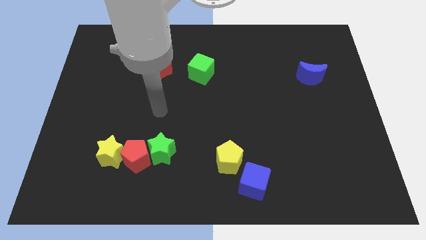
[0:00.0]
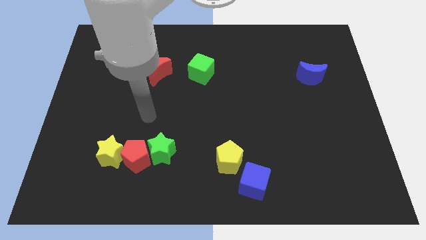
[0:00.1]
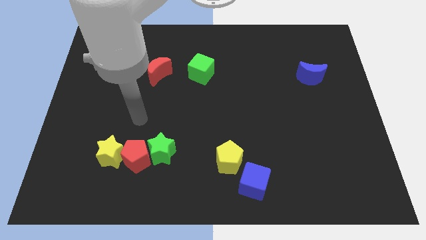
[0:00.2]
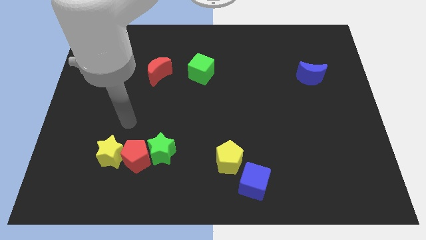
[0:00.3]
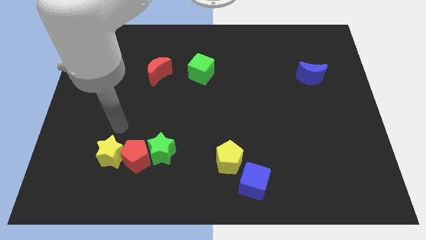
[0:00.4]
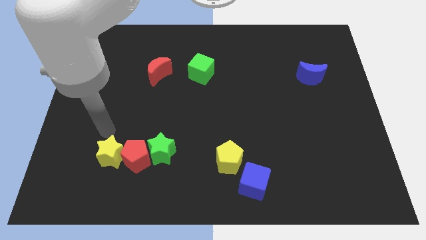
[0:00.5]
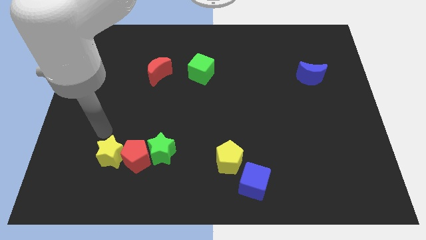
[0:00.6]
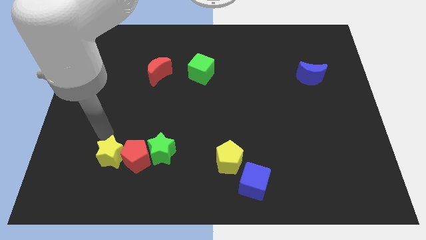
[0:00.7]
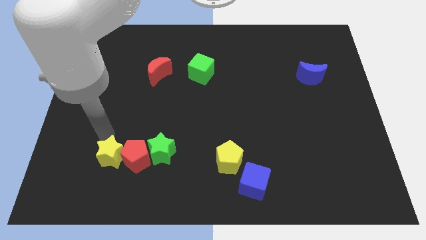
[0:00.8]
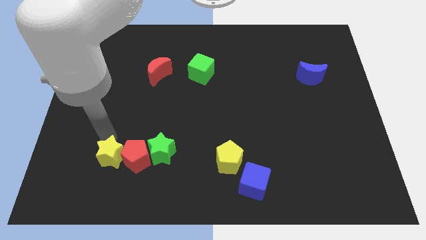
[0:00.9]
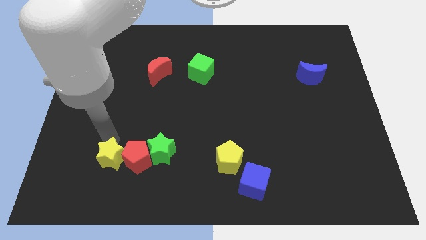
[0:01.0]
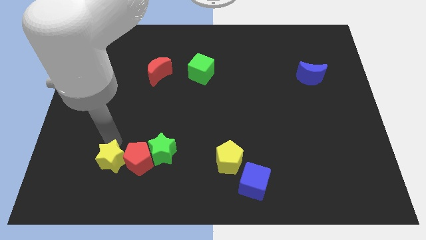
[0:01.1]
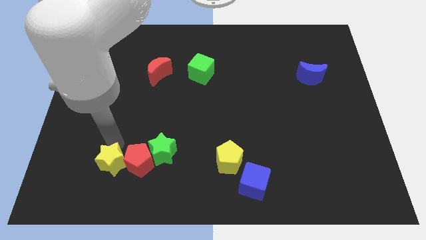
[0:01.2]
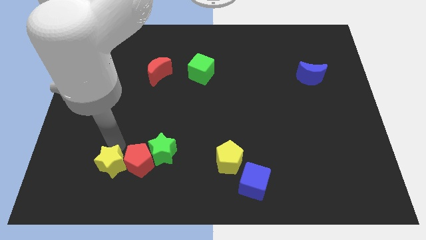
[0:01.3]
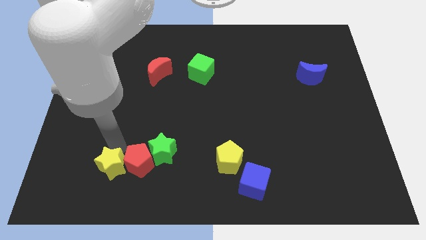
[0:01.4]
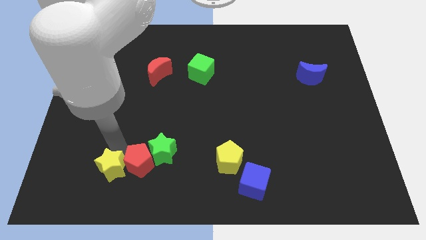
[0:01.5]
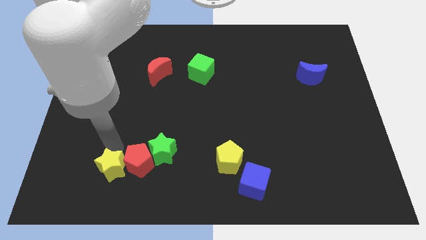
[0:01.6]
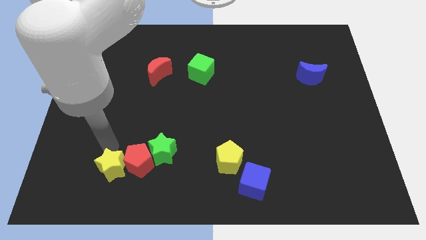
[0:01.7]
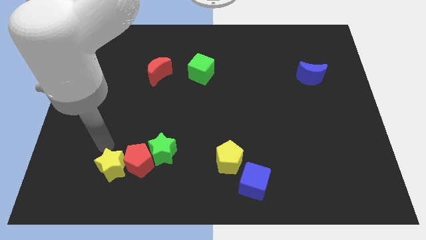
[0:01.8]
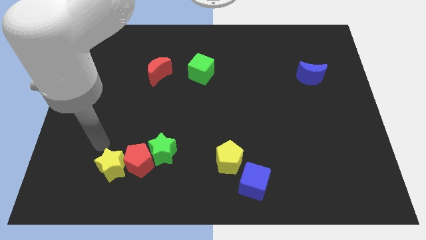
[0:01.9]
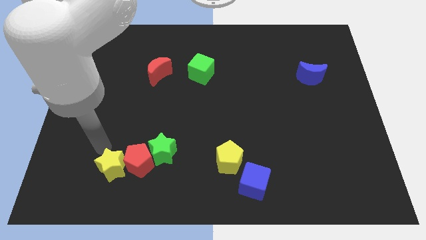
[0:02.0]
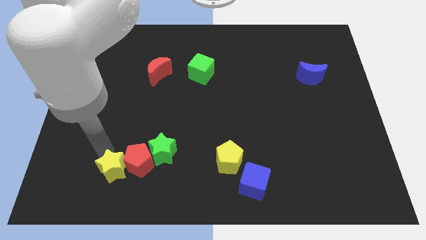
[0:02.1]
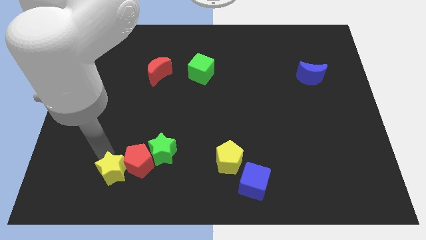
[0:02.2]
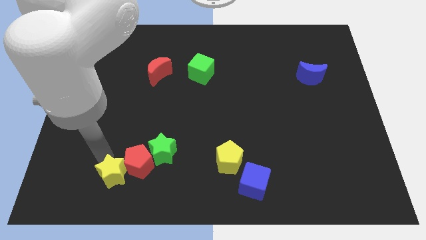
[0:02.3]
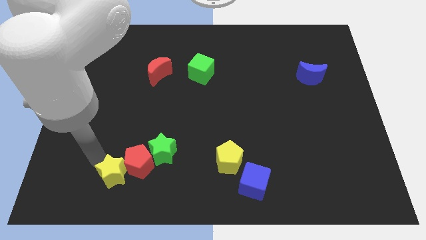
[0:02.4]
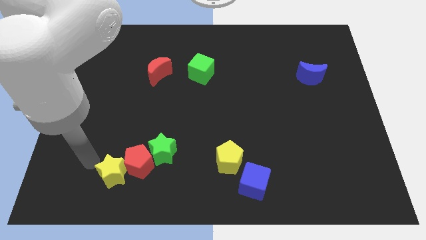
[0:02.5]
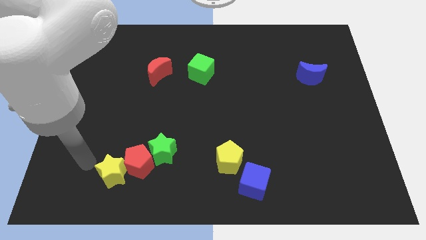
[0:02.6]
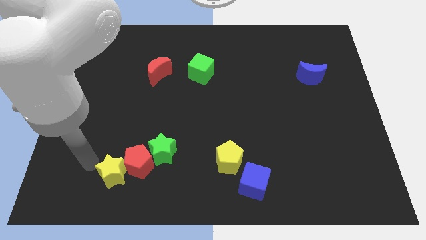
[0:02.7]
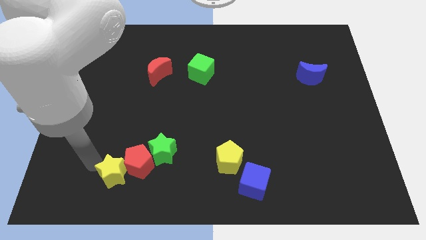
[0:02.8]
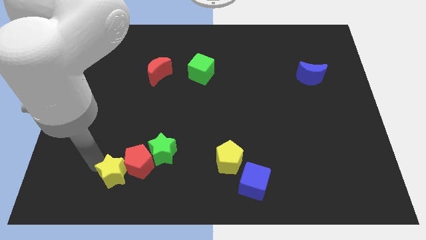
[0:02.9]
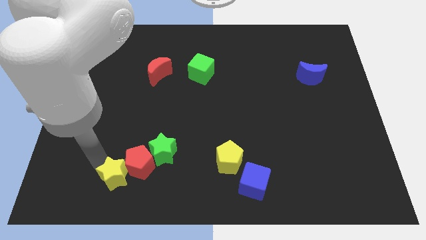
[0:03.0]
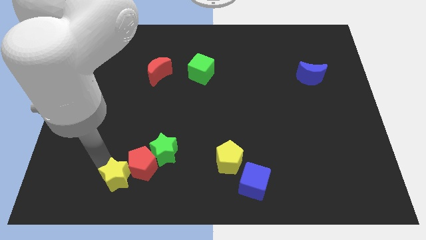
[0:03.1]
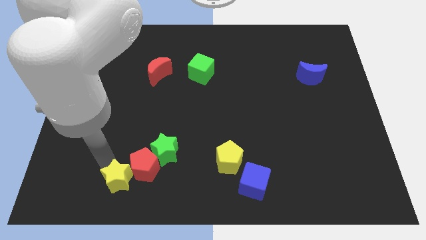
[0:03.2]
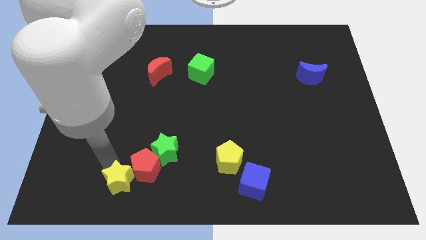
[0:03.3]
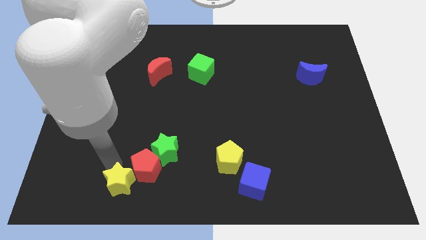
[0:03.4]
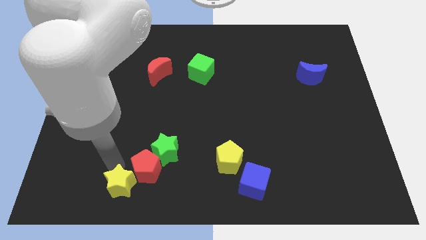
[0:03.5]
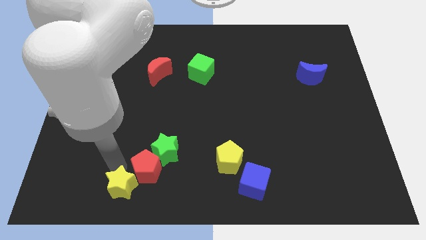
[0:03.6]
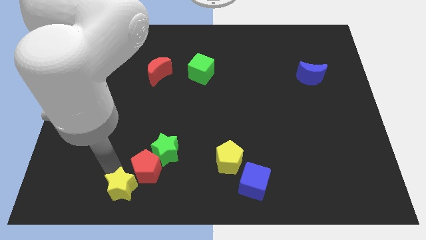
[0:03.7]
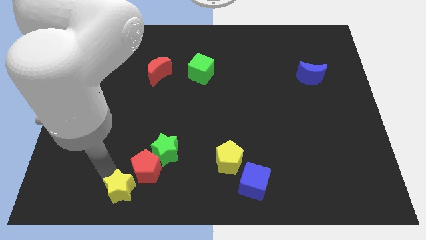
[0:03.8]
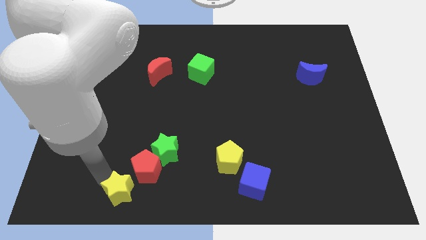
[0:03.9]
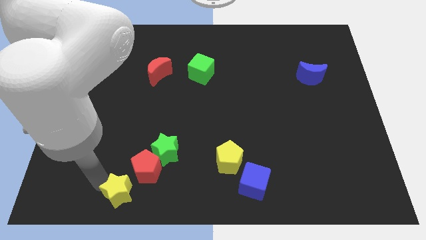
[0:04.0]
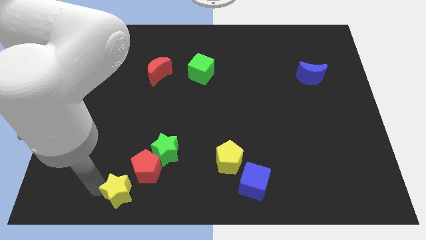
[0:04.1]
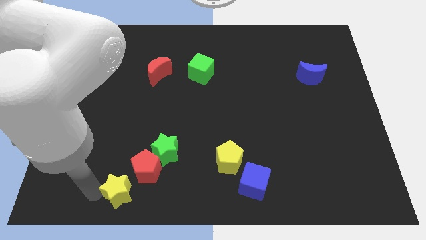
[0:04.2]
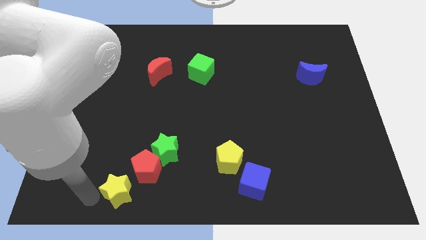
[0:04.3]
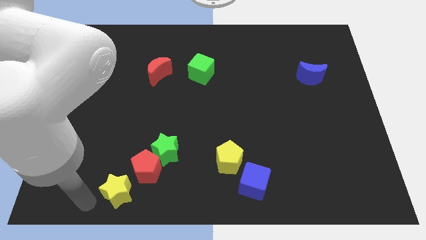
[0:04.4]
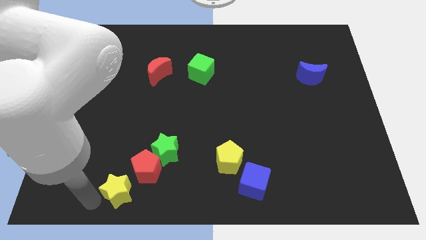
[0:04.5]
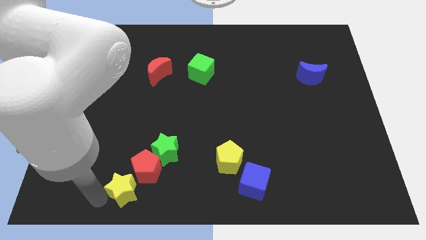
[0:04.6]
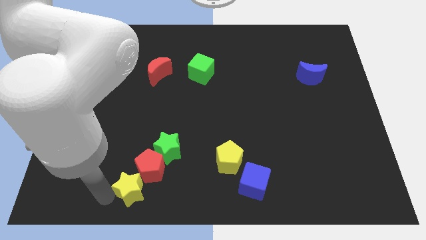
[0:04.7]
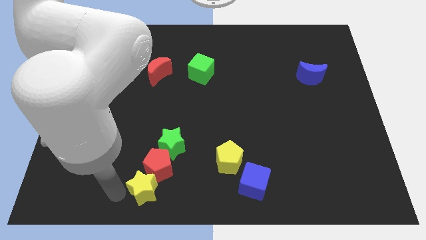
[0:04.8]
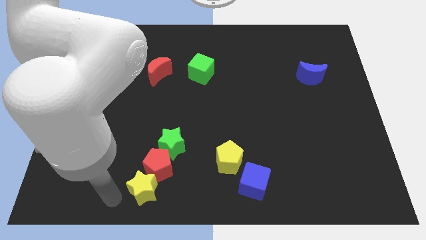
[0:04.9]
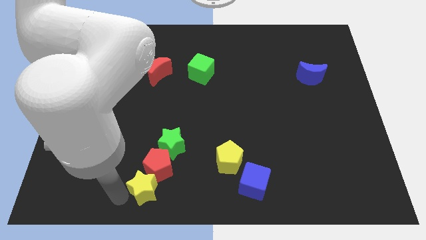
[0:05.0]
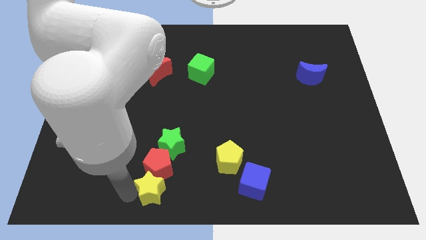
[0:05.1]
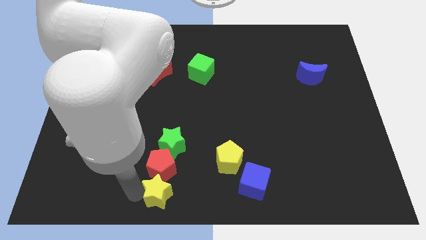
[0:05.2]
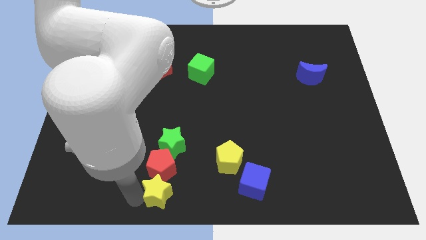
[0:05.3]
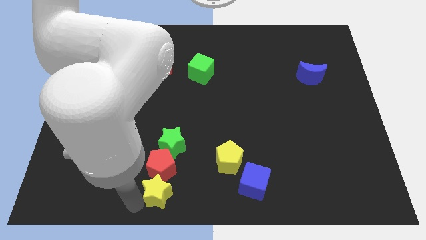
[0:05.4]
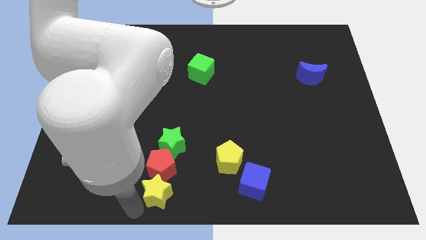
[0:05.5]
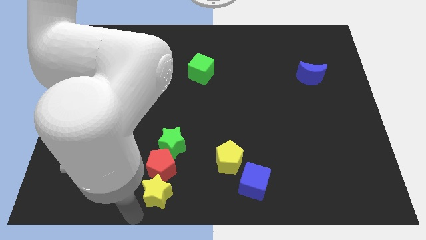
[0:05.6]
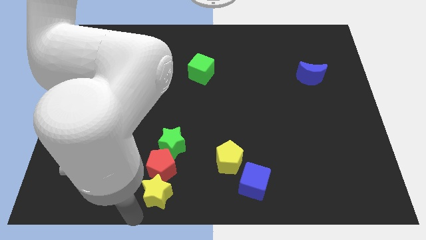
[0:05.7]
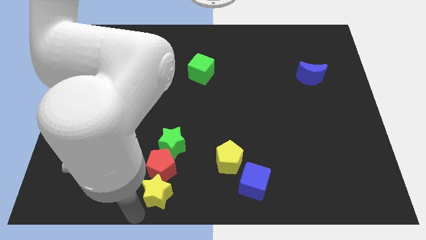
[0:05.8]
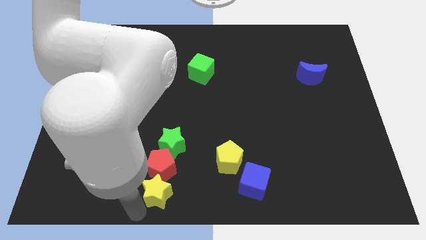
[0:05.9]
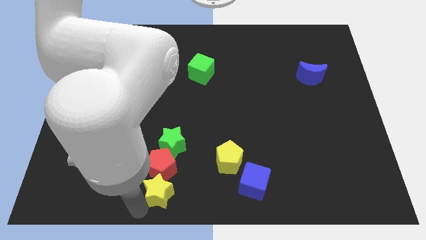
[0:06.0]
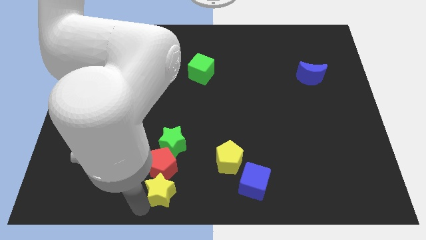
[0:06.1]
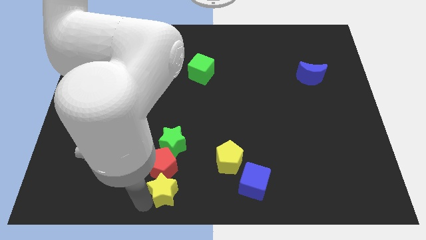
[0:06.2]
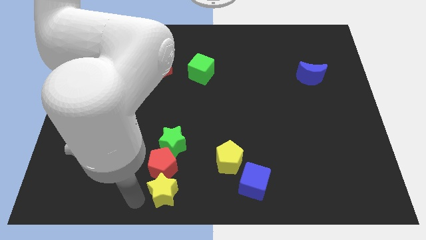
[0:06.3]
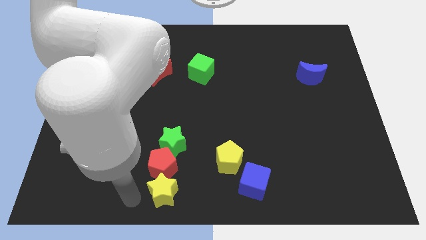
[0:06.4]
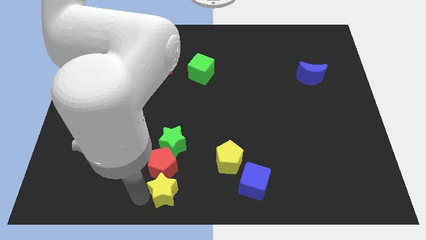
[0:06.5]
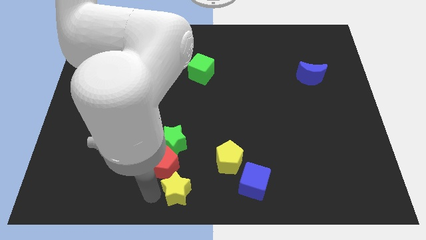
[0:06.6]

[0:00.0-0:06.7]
move the yellow star to the left of the blue cube

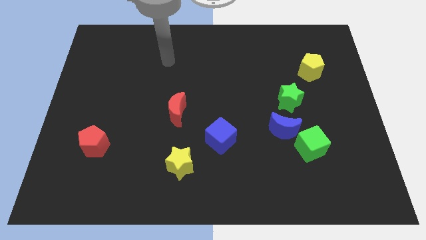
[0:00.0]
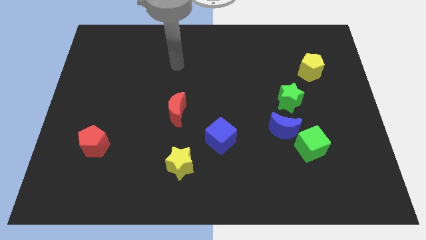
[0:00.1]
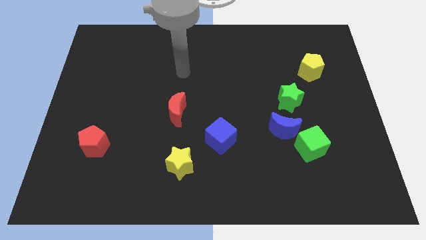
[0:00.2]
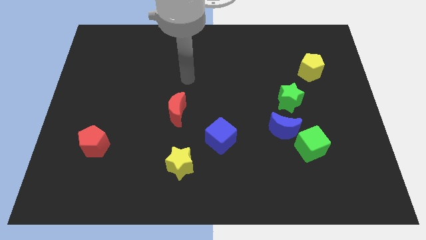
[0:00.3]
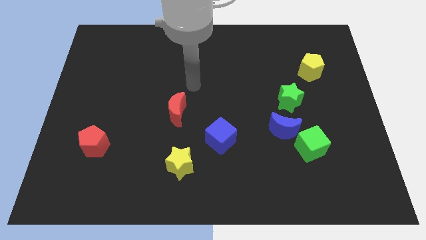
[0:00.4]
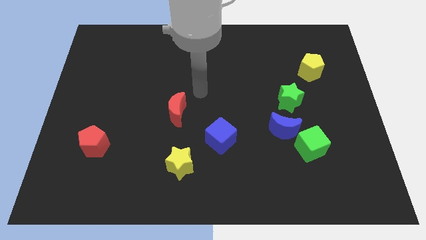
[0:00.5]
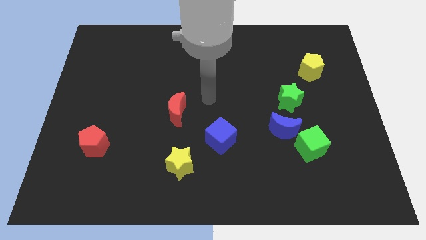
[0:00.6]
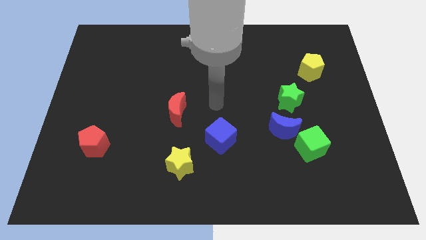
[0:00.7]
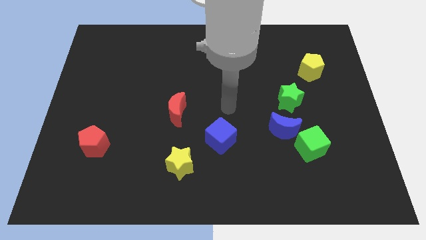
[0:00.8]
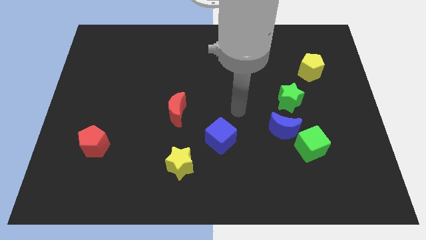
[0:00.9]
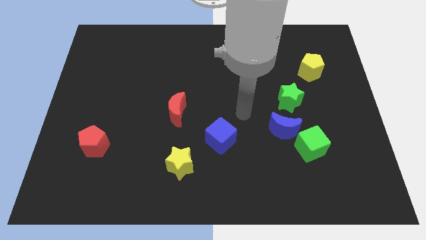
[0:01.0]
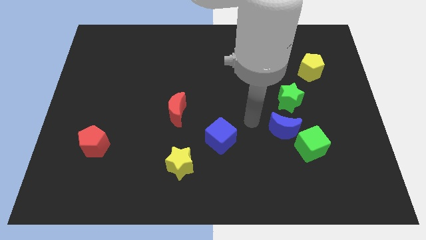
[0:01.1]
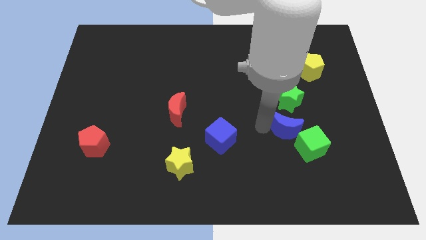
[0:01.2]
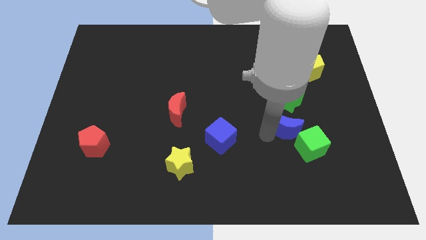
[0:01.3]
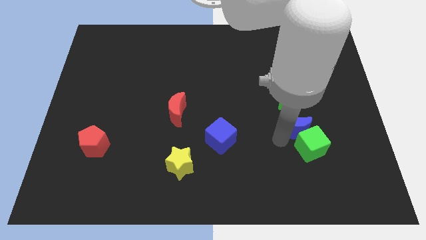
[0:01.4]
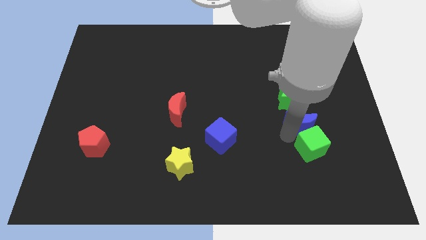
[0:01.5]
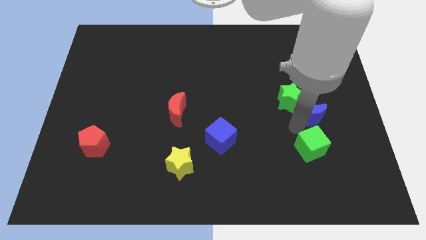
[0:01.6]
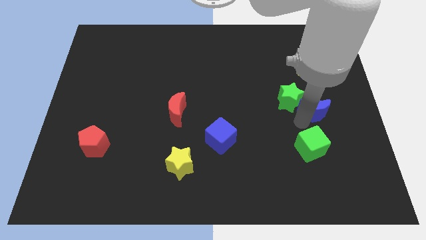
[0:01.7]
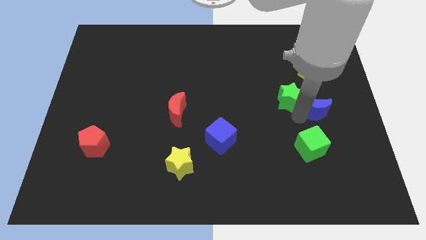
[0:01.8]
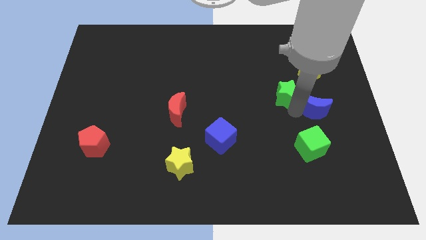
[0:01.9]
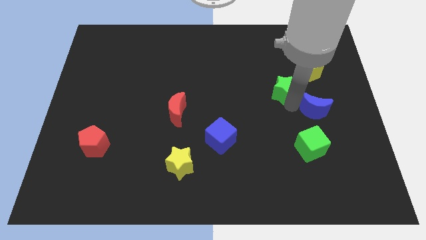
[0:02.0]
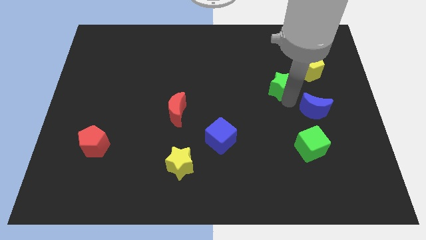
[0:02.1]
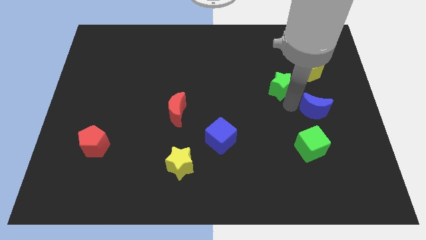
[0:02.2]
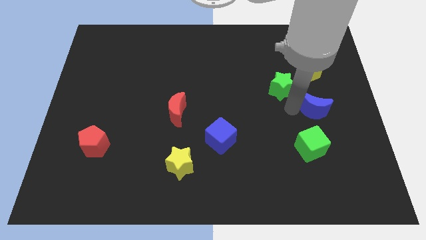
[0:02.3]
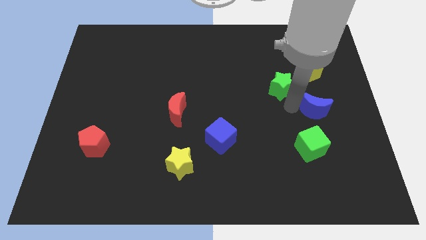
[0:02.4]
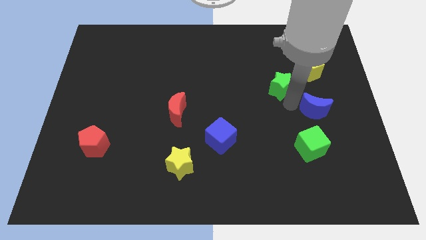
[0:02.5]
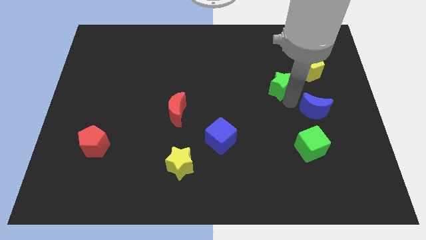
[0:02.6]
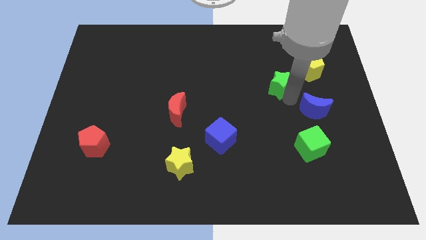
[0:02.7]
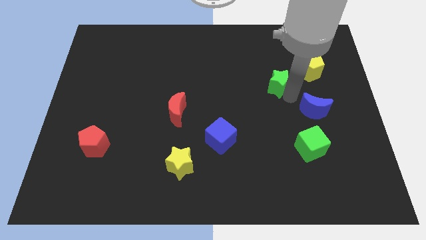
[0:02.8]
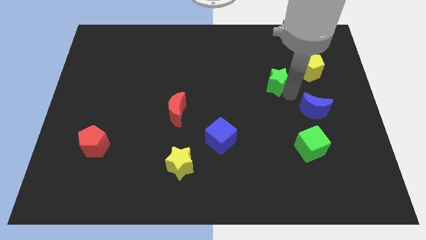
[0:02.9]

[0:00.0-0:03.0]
slide the green star just left of the yellow pentagon
